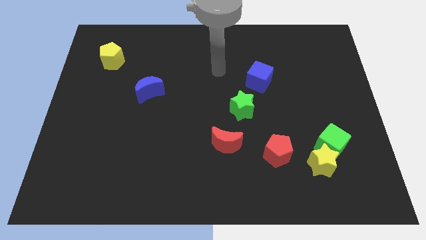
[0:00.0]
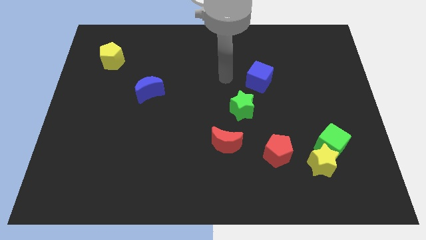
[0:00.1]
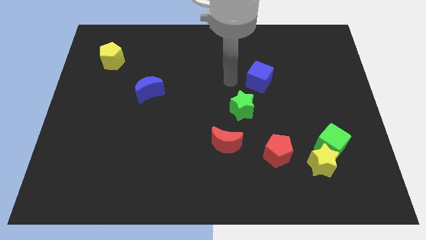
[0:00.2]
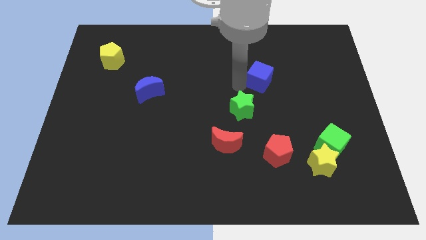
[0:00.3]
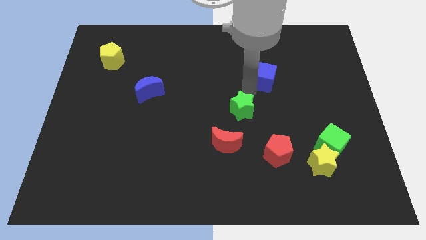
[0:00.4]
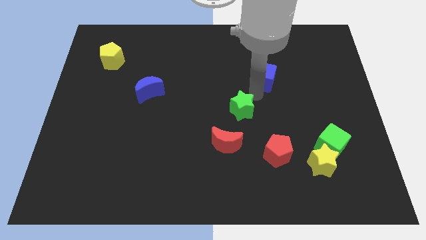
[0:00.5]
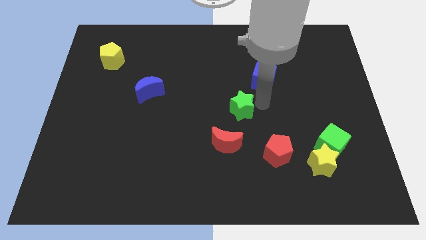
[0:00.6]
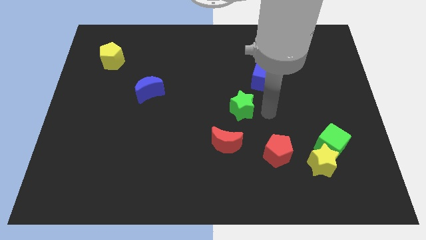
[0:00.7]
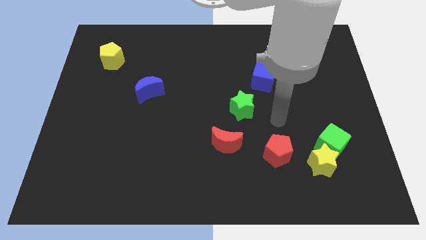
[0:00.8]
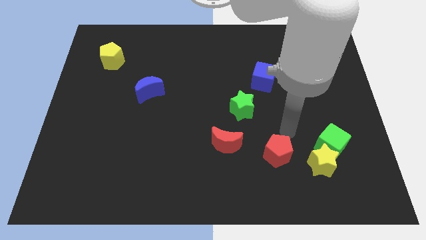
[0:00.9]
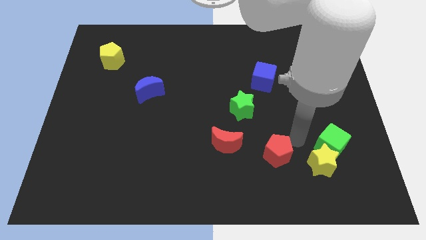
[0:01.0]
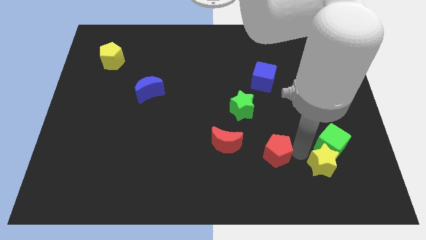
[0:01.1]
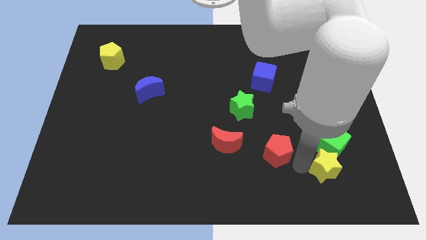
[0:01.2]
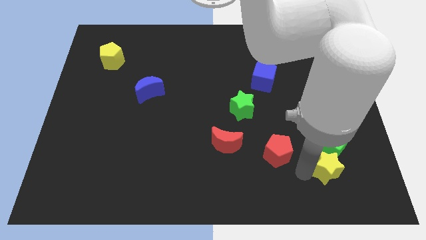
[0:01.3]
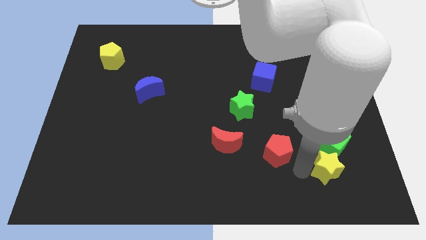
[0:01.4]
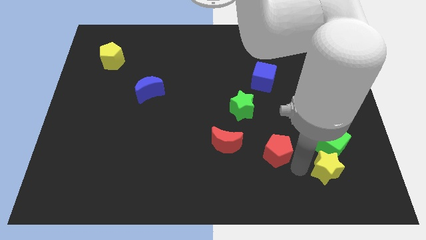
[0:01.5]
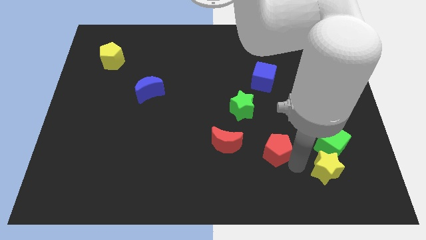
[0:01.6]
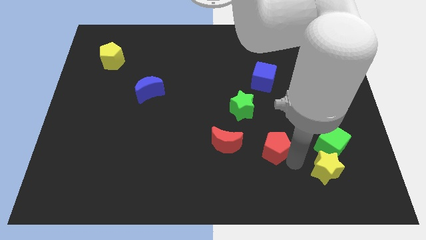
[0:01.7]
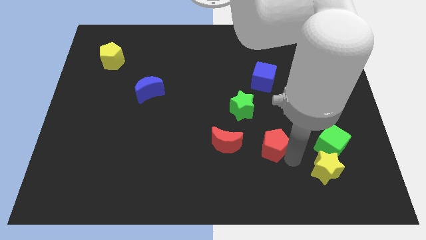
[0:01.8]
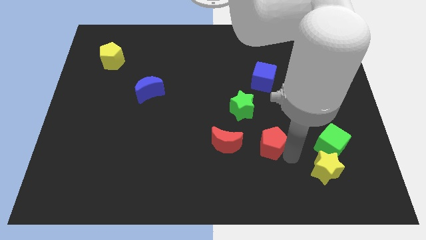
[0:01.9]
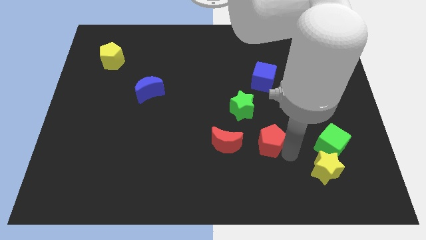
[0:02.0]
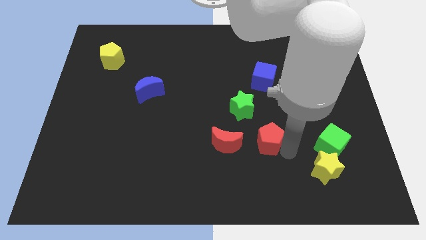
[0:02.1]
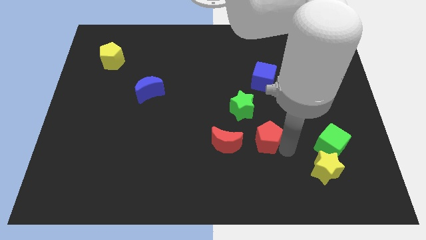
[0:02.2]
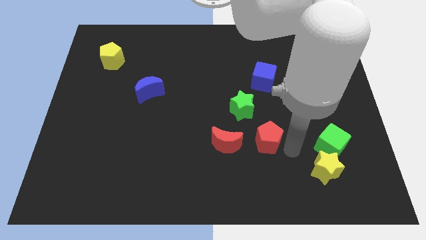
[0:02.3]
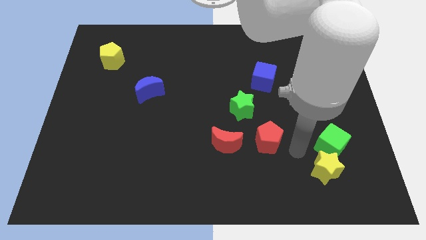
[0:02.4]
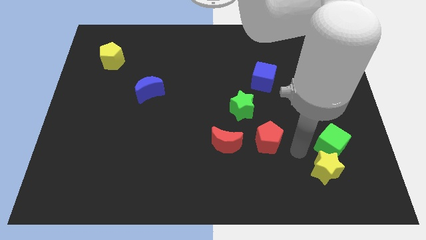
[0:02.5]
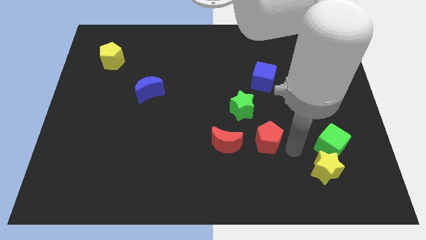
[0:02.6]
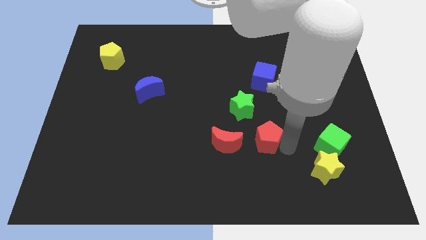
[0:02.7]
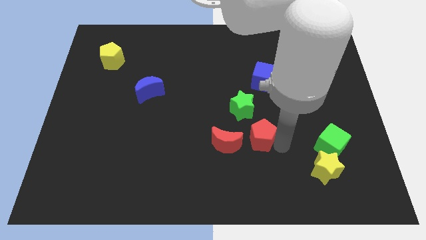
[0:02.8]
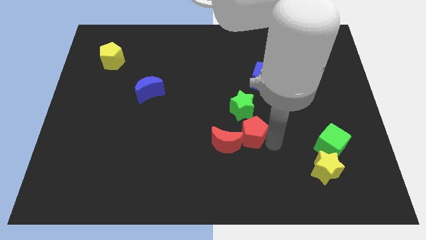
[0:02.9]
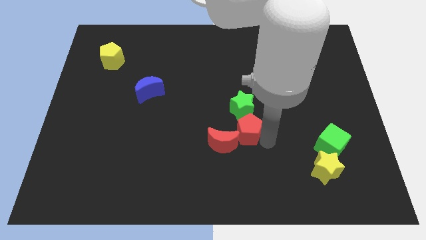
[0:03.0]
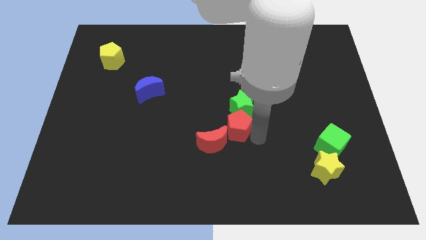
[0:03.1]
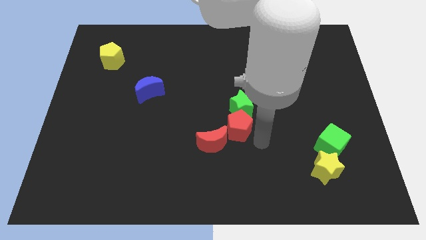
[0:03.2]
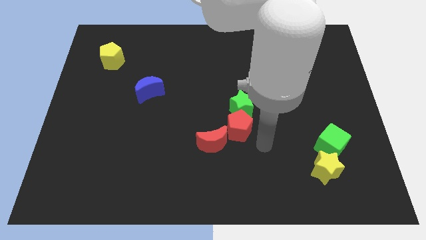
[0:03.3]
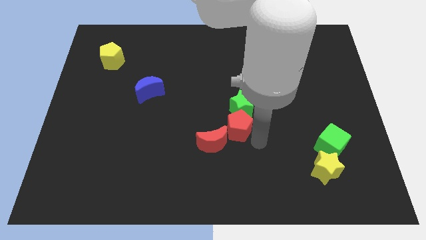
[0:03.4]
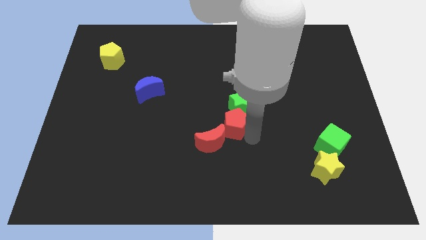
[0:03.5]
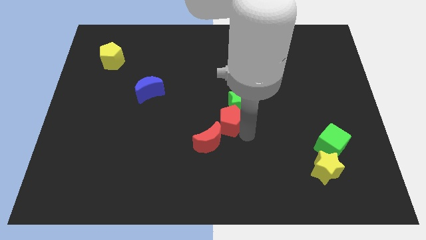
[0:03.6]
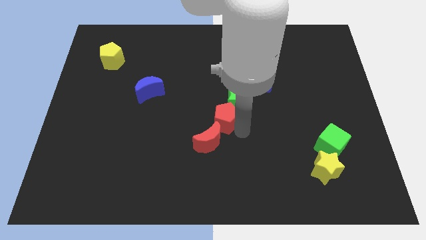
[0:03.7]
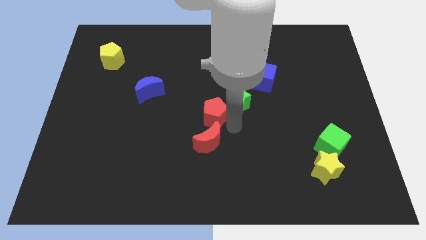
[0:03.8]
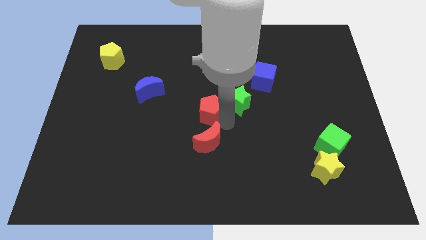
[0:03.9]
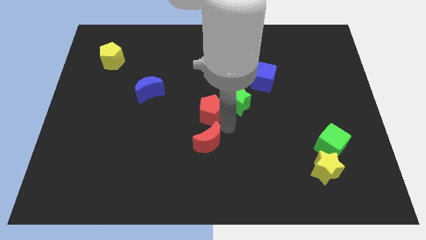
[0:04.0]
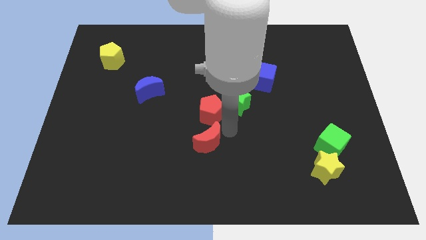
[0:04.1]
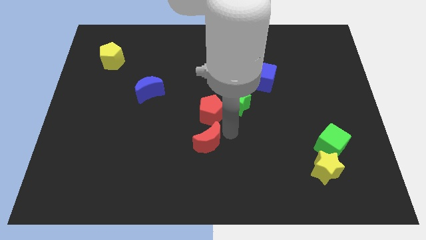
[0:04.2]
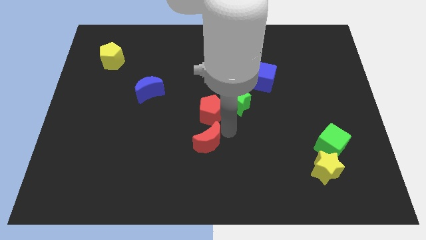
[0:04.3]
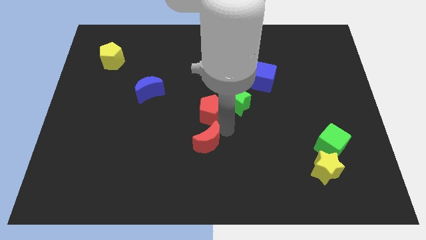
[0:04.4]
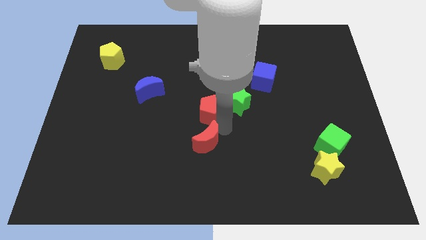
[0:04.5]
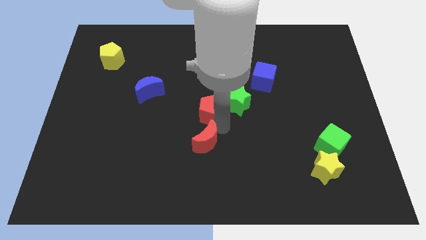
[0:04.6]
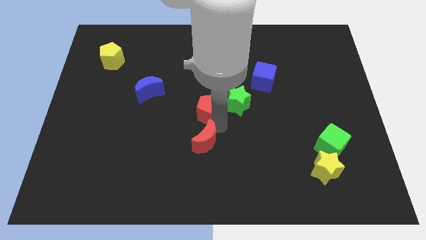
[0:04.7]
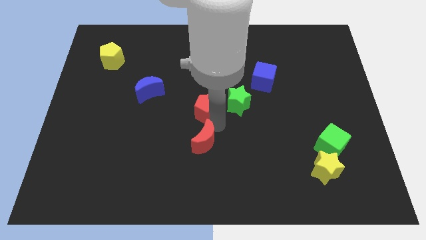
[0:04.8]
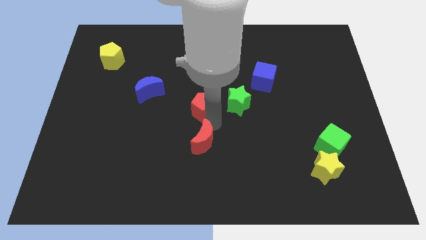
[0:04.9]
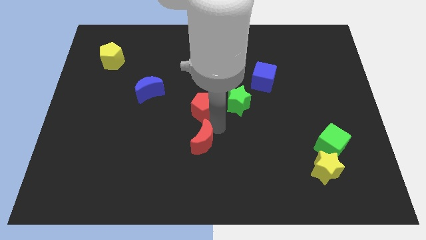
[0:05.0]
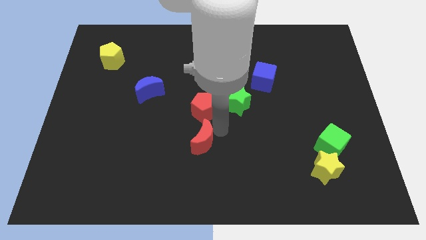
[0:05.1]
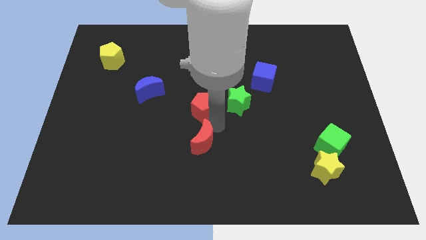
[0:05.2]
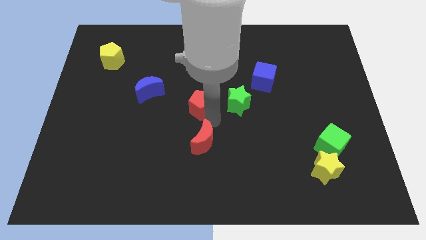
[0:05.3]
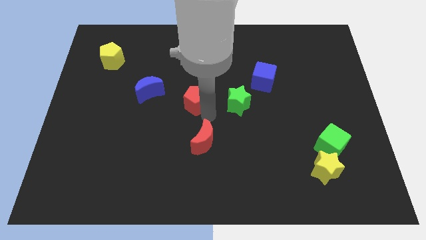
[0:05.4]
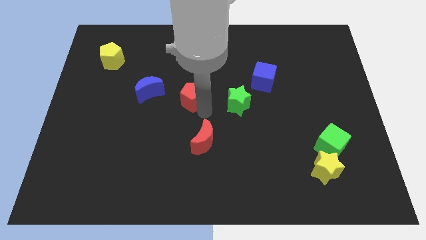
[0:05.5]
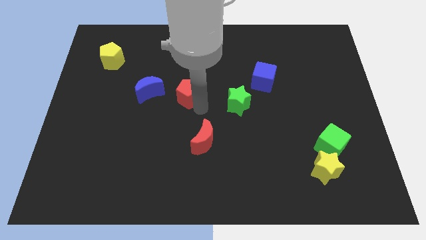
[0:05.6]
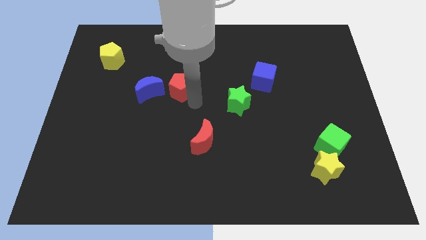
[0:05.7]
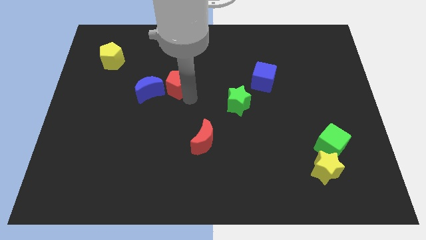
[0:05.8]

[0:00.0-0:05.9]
push the red pentagon diagonally up and to the right of the blue moon
